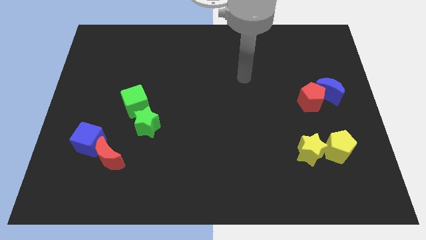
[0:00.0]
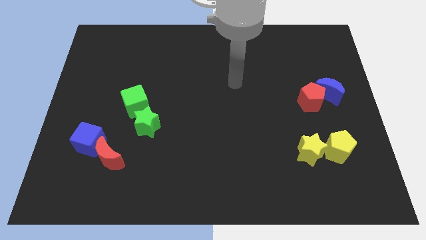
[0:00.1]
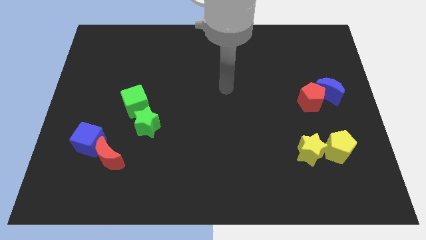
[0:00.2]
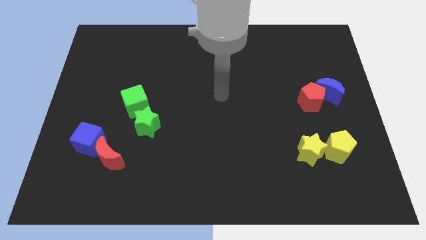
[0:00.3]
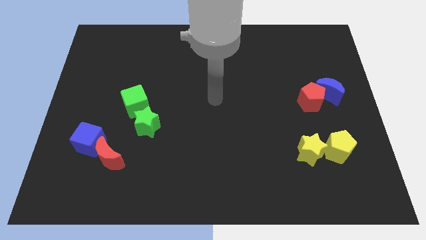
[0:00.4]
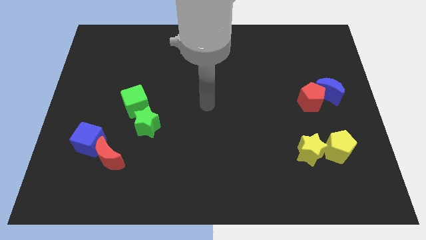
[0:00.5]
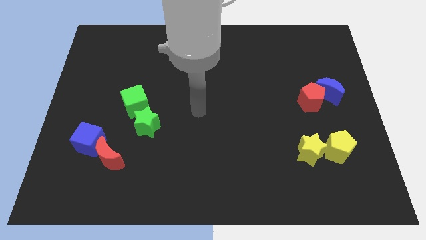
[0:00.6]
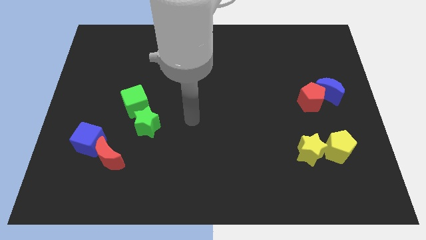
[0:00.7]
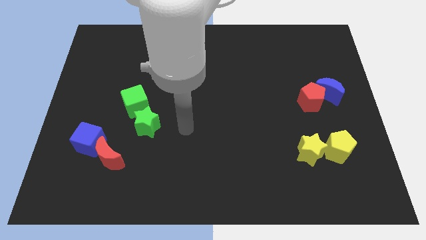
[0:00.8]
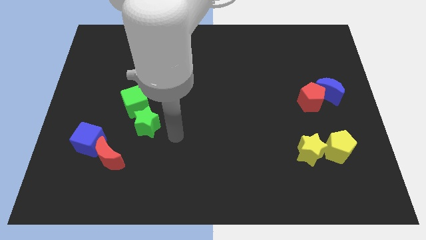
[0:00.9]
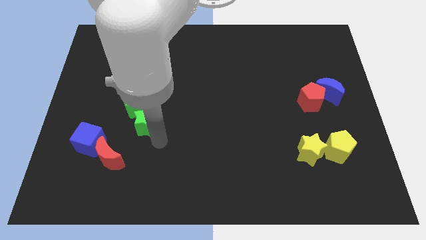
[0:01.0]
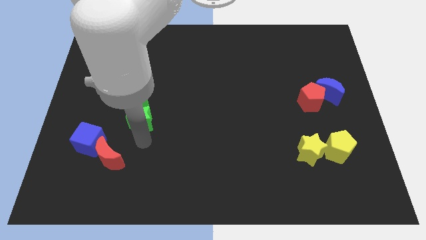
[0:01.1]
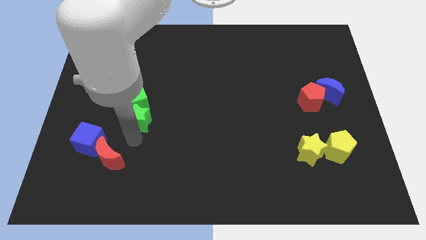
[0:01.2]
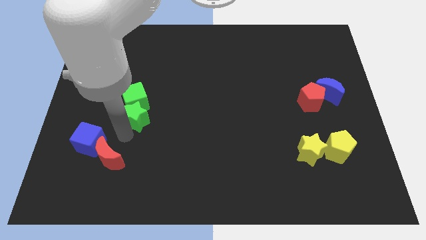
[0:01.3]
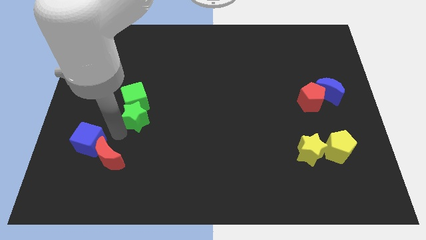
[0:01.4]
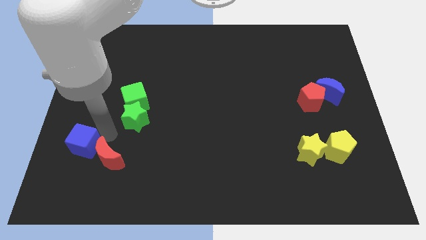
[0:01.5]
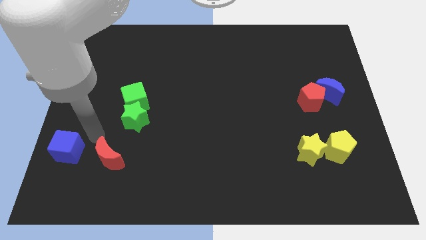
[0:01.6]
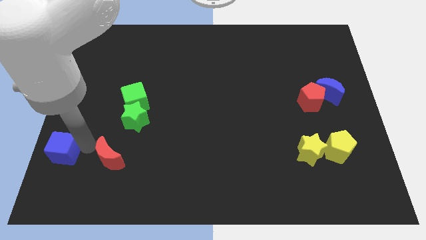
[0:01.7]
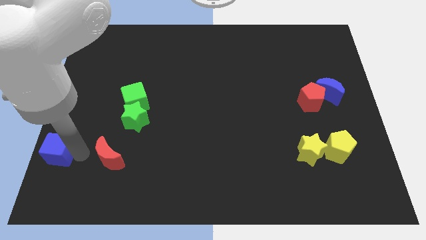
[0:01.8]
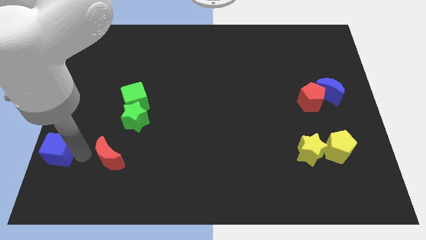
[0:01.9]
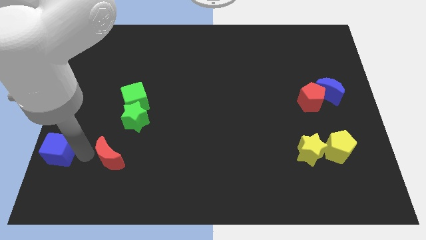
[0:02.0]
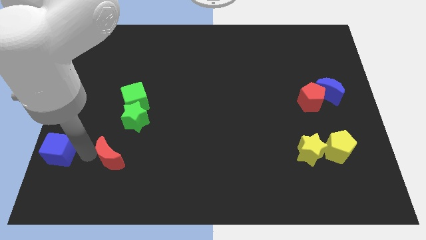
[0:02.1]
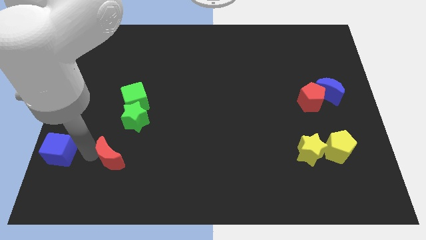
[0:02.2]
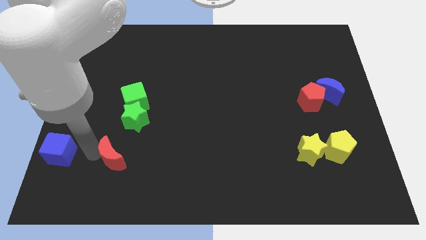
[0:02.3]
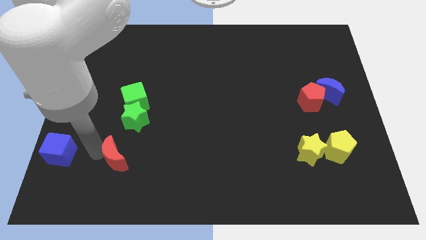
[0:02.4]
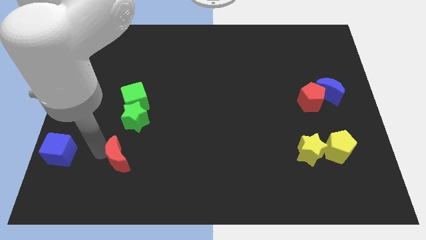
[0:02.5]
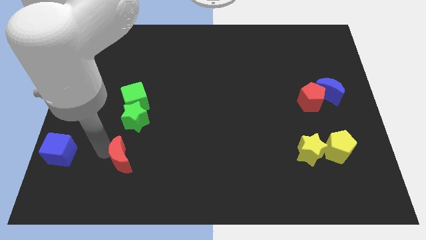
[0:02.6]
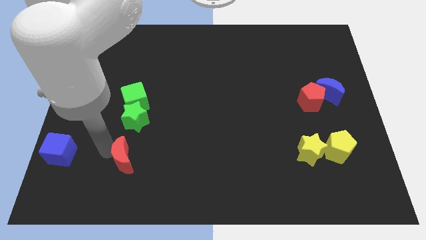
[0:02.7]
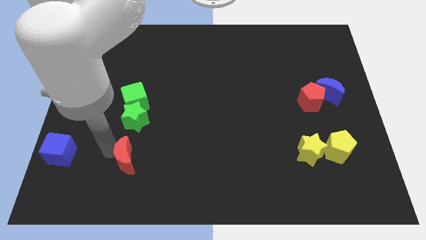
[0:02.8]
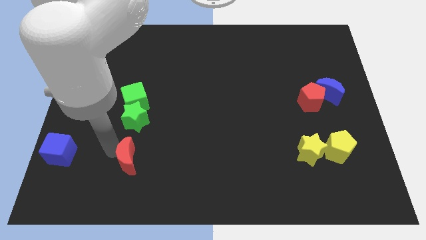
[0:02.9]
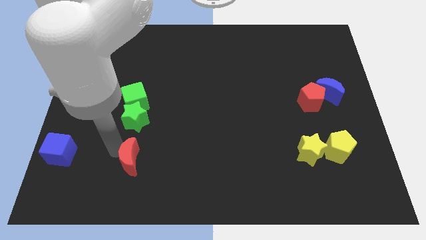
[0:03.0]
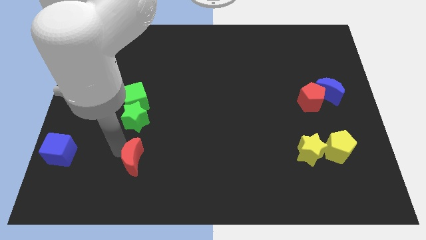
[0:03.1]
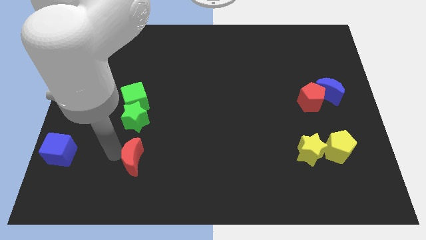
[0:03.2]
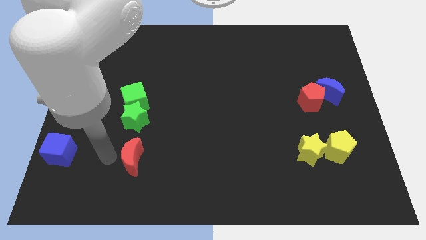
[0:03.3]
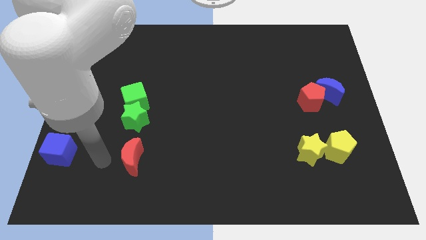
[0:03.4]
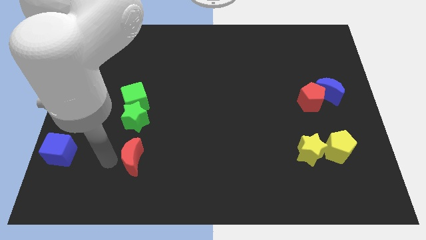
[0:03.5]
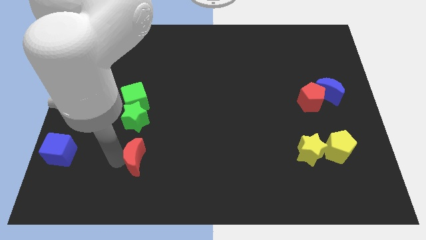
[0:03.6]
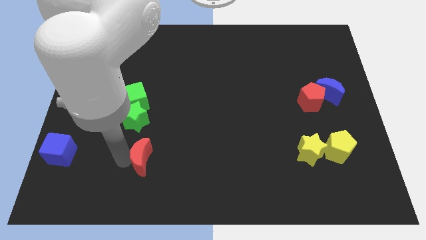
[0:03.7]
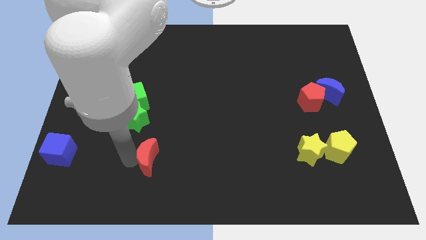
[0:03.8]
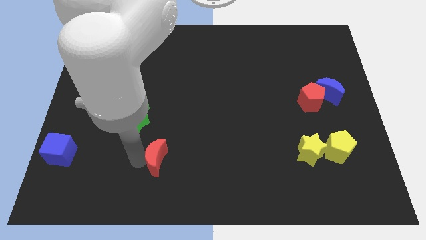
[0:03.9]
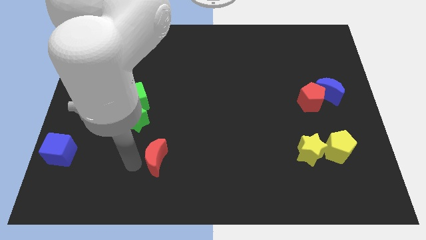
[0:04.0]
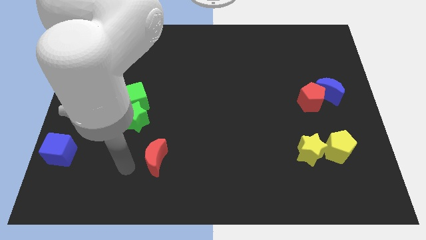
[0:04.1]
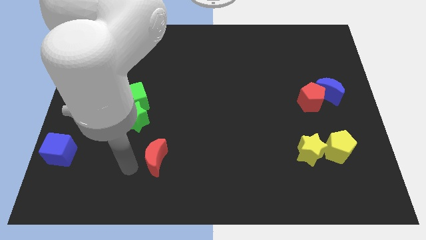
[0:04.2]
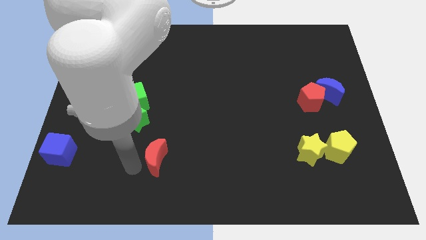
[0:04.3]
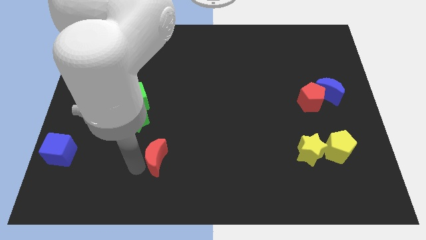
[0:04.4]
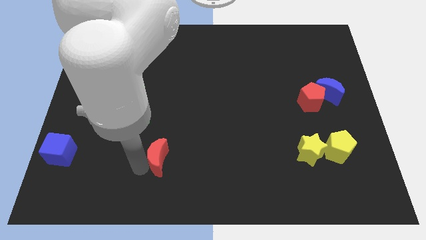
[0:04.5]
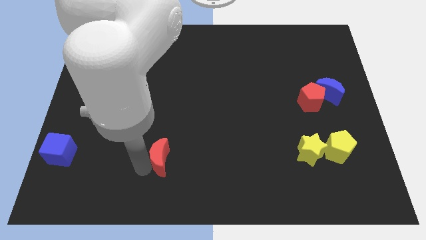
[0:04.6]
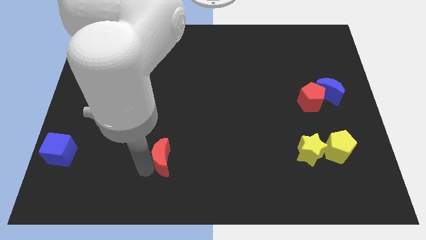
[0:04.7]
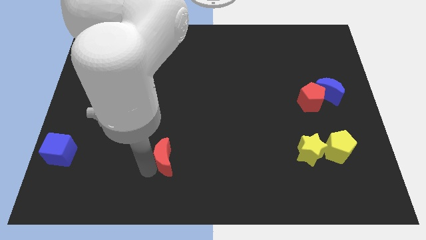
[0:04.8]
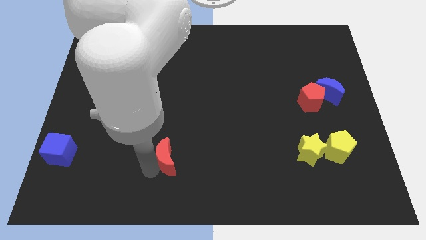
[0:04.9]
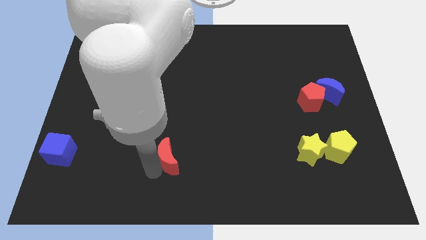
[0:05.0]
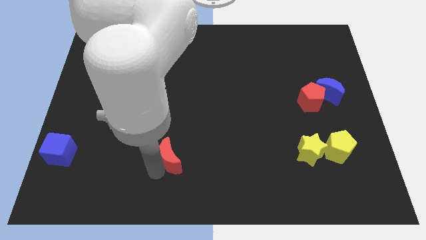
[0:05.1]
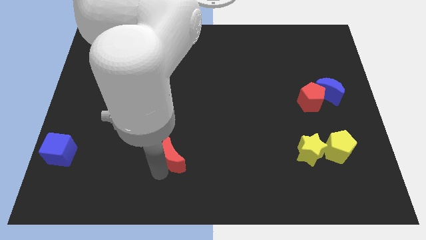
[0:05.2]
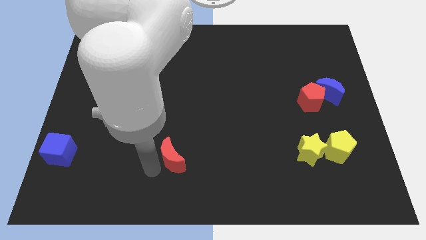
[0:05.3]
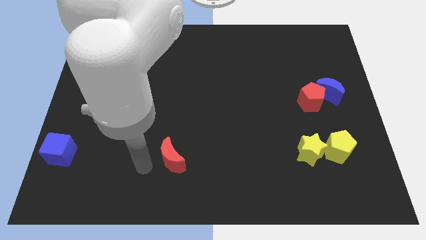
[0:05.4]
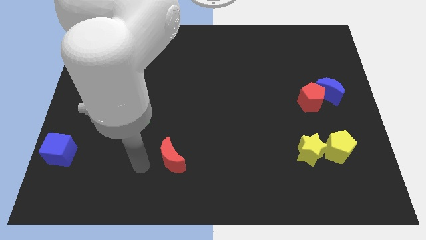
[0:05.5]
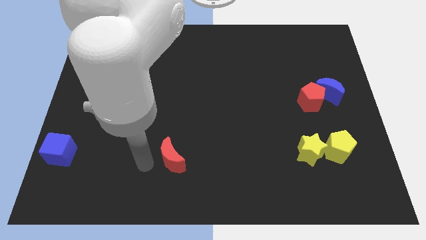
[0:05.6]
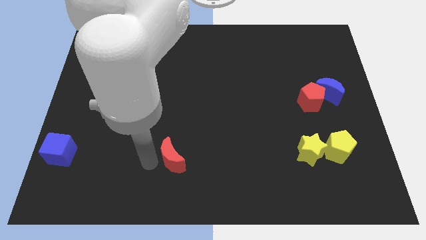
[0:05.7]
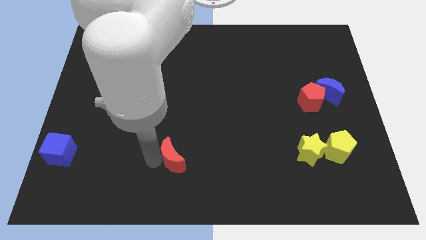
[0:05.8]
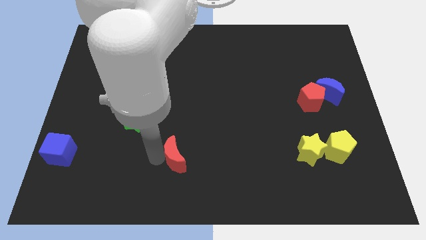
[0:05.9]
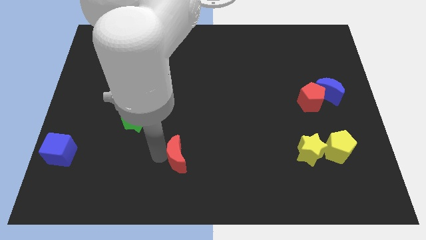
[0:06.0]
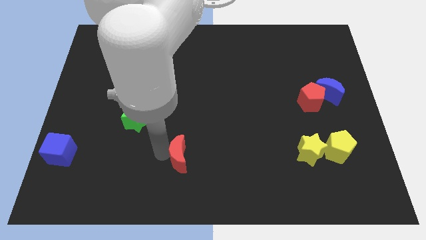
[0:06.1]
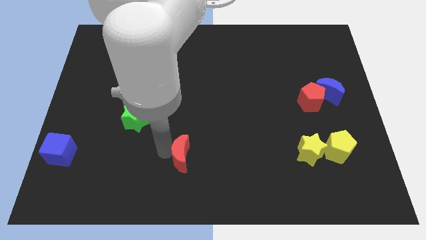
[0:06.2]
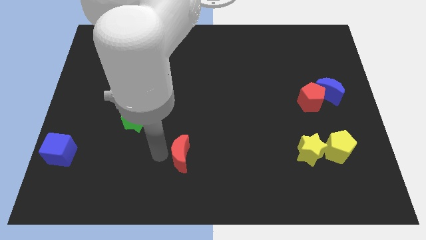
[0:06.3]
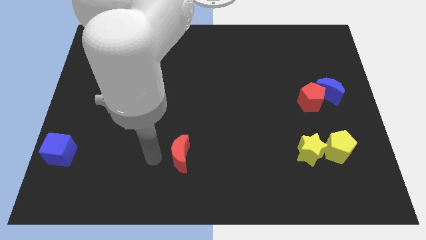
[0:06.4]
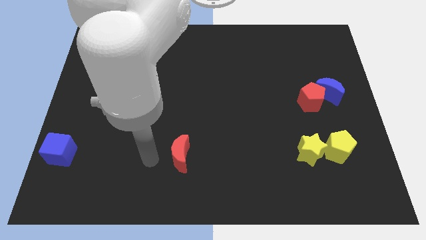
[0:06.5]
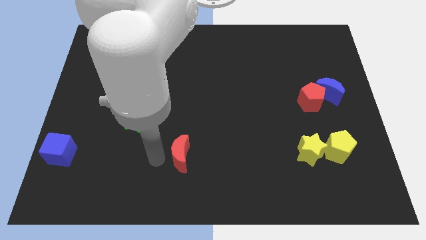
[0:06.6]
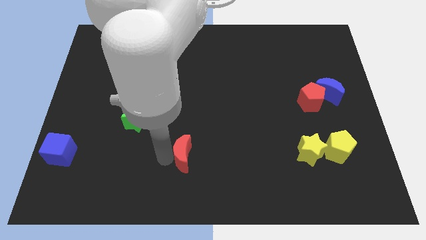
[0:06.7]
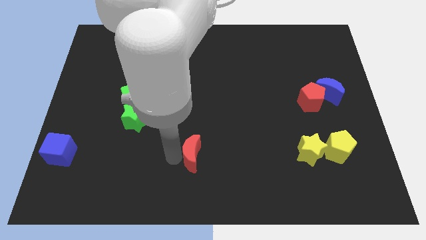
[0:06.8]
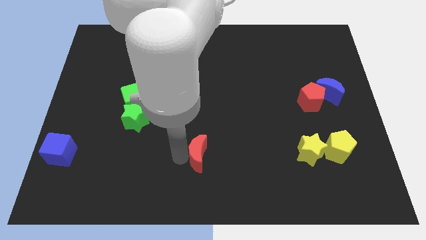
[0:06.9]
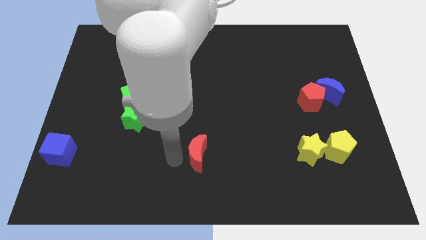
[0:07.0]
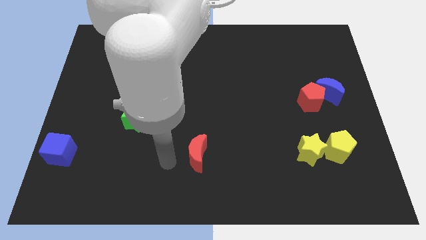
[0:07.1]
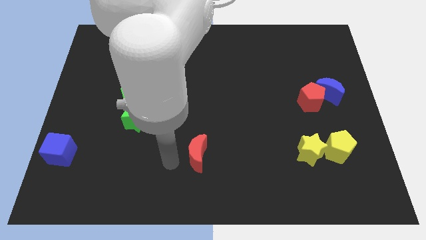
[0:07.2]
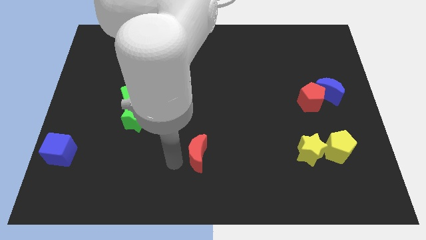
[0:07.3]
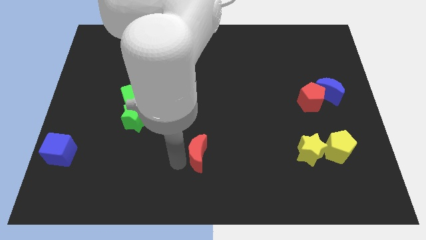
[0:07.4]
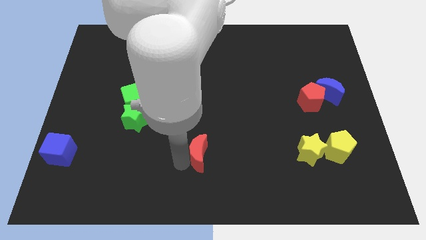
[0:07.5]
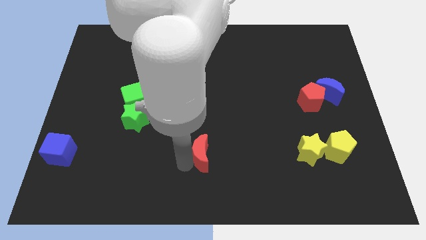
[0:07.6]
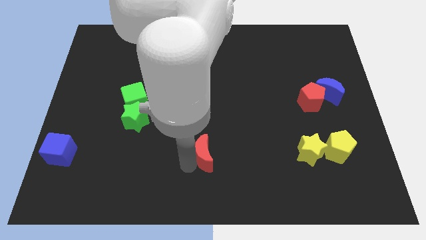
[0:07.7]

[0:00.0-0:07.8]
move the red moon to the right
